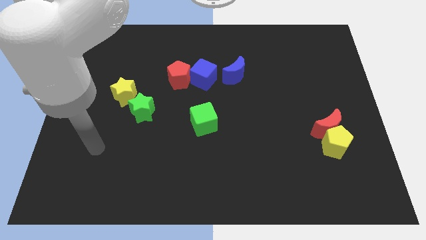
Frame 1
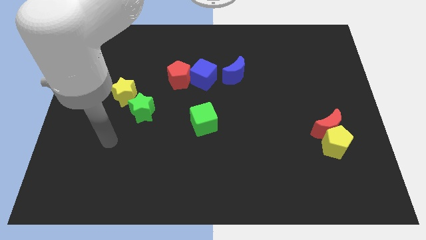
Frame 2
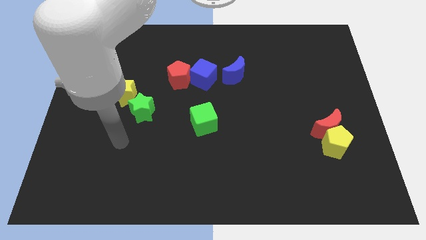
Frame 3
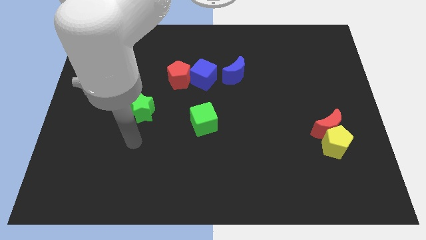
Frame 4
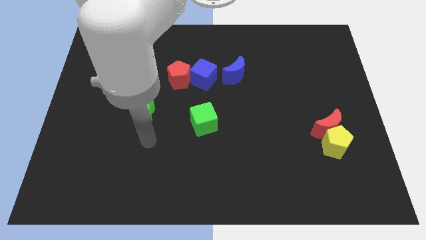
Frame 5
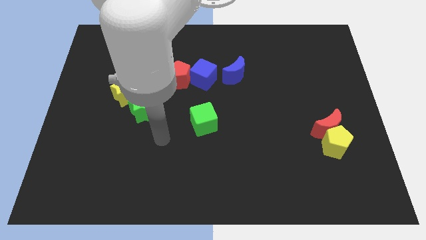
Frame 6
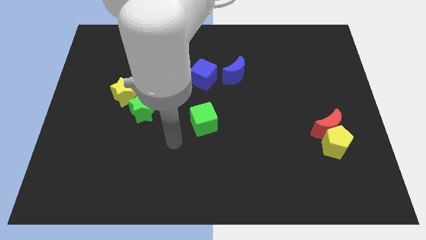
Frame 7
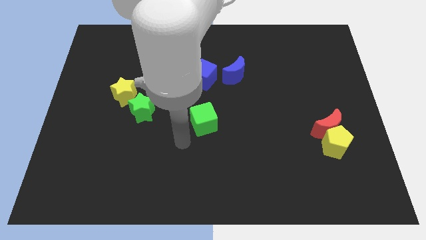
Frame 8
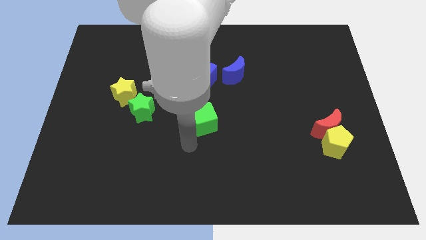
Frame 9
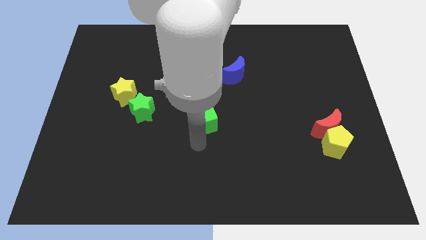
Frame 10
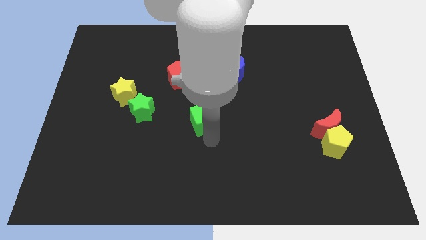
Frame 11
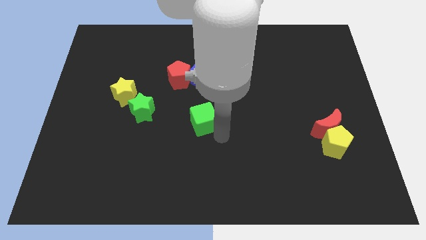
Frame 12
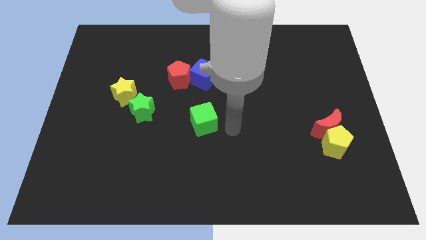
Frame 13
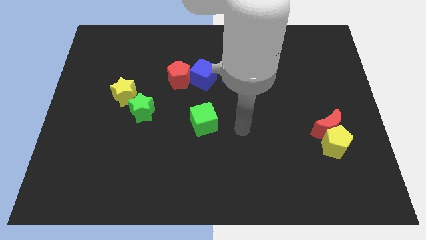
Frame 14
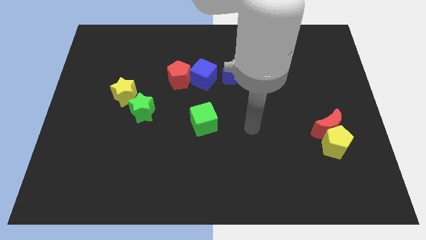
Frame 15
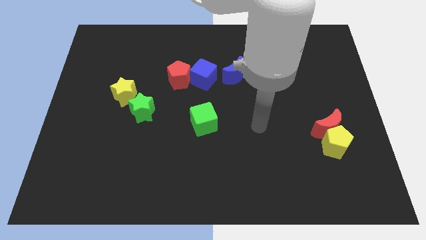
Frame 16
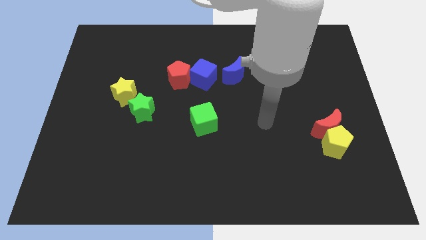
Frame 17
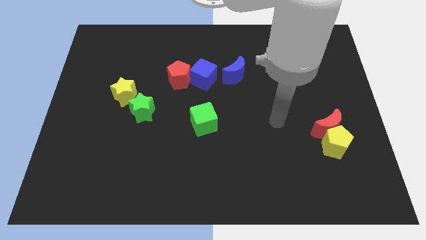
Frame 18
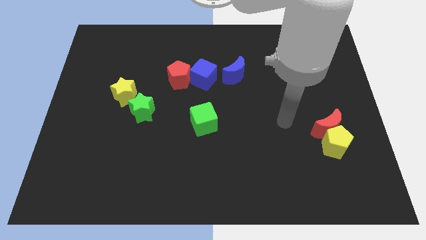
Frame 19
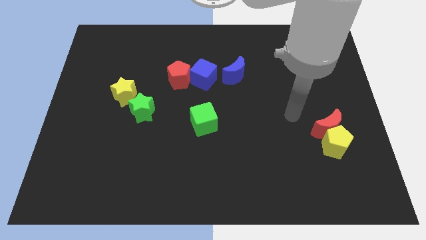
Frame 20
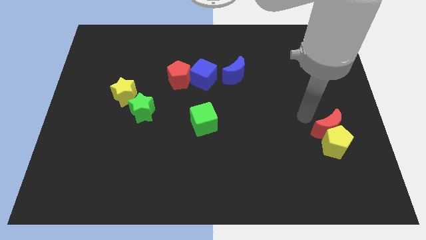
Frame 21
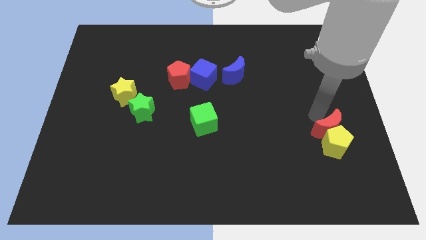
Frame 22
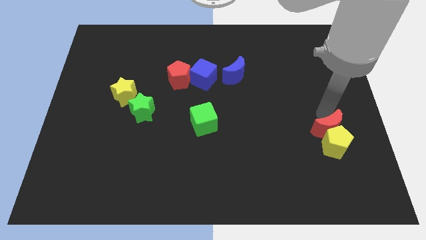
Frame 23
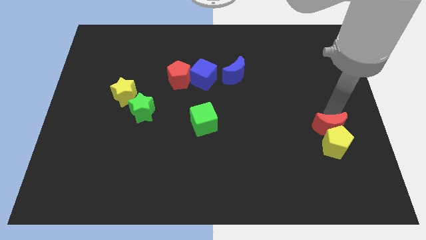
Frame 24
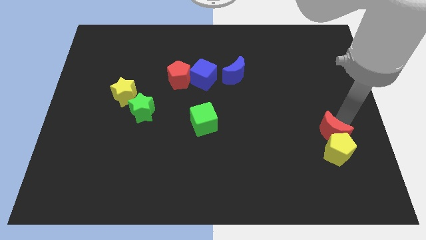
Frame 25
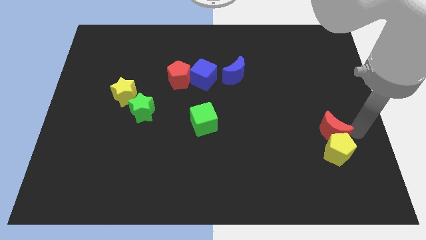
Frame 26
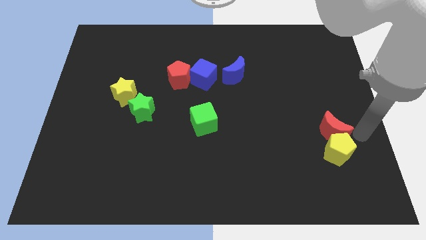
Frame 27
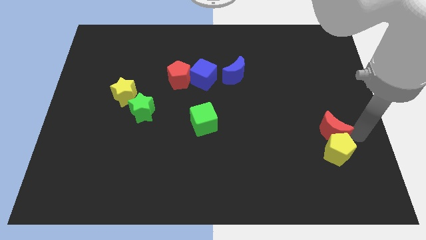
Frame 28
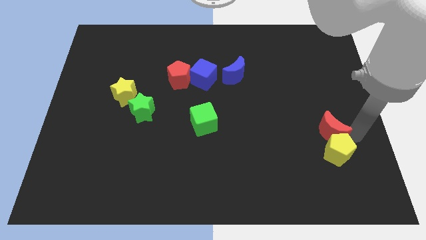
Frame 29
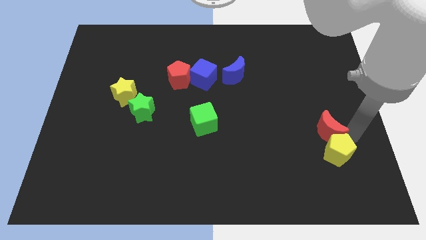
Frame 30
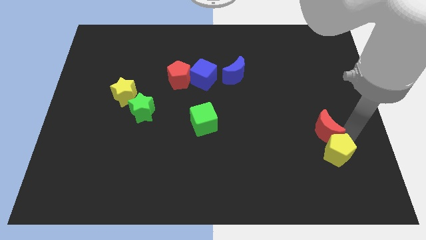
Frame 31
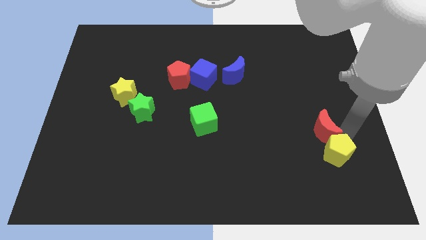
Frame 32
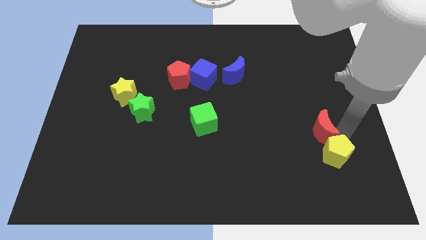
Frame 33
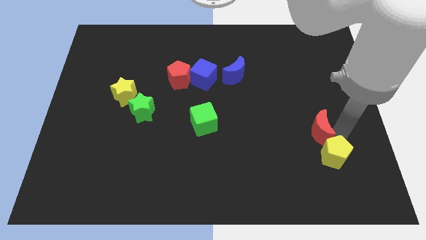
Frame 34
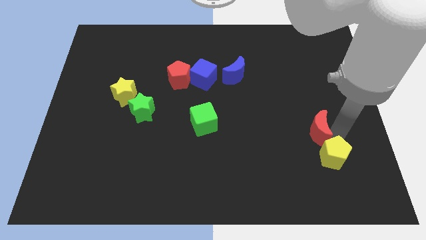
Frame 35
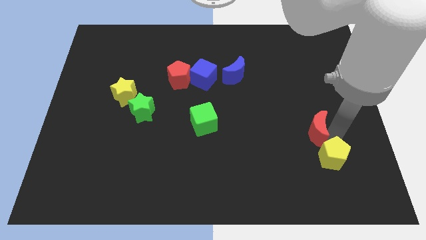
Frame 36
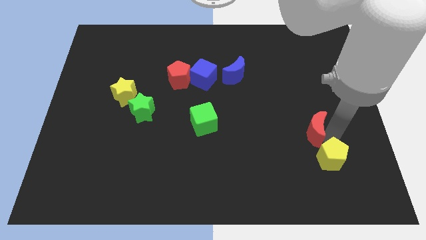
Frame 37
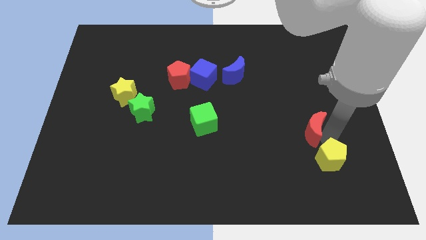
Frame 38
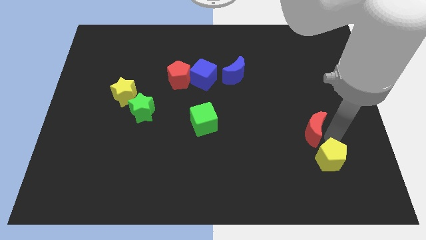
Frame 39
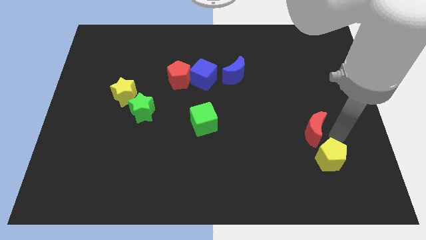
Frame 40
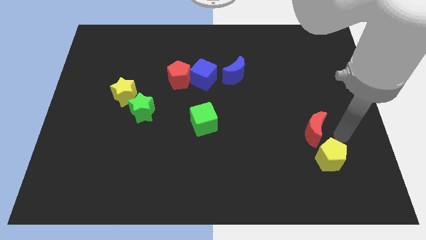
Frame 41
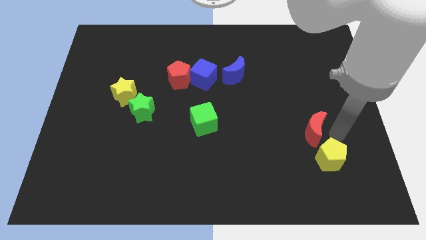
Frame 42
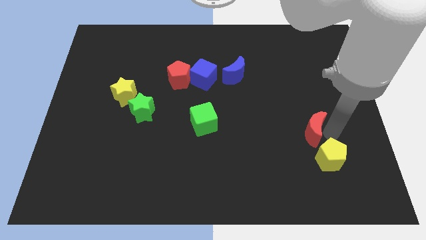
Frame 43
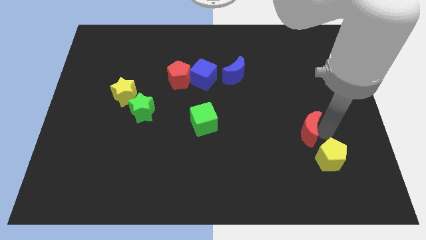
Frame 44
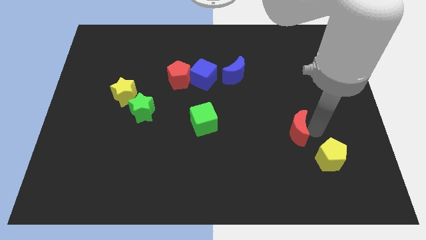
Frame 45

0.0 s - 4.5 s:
move the red moon slightly to the left

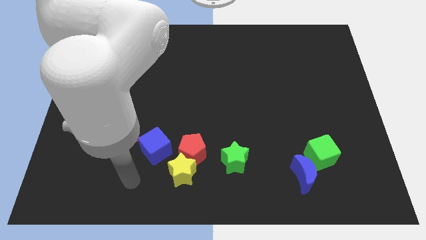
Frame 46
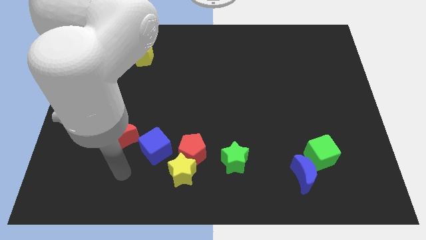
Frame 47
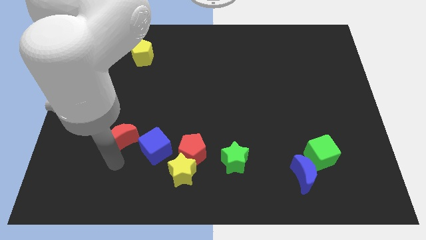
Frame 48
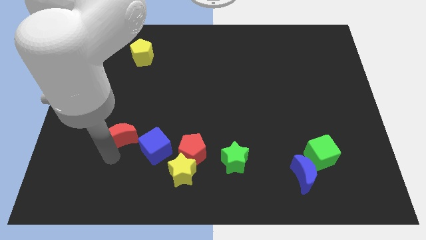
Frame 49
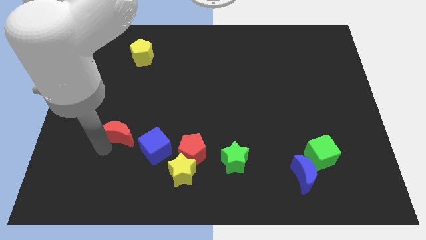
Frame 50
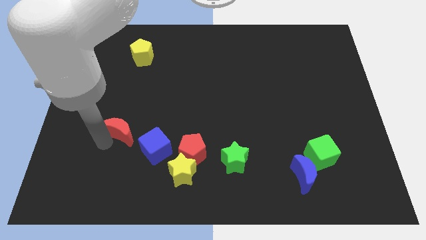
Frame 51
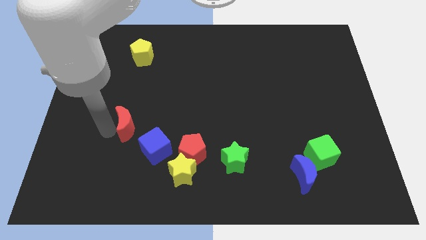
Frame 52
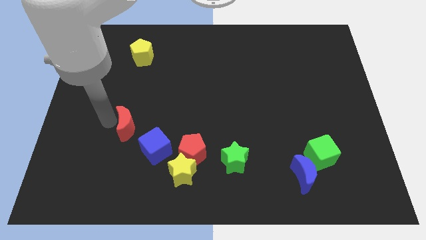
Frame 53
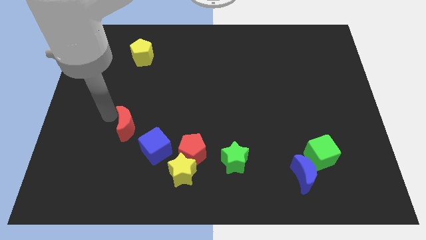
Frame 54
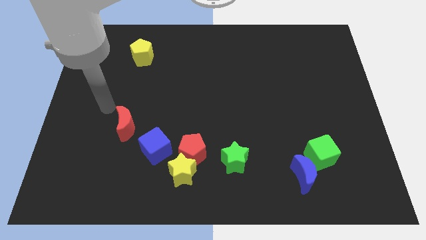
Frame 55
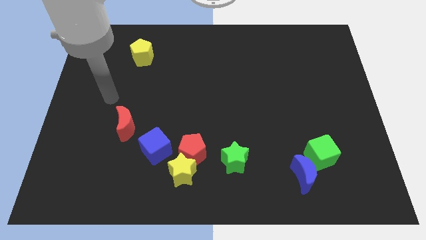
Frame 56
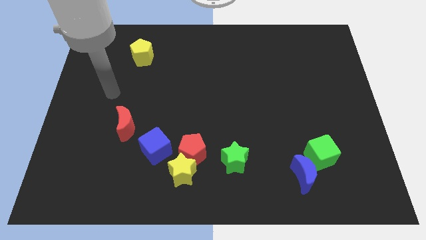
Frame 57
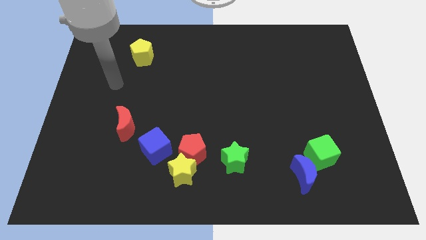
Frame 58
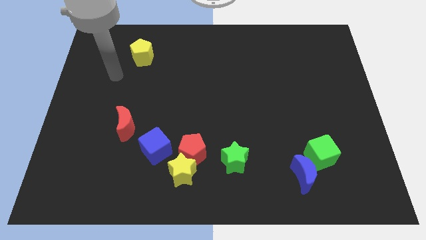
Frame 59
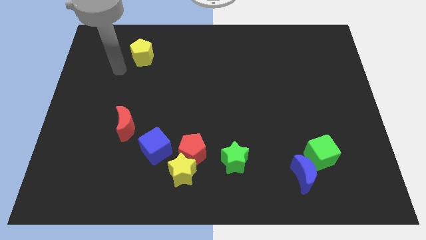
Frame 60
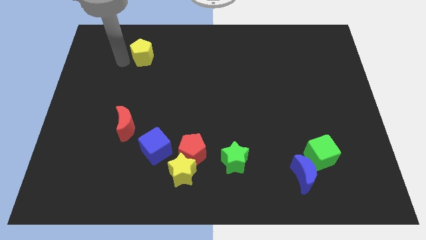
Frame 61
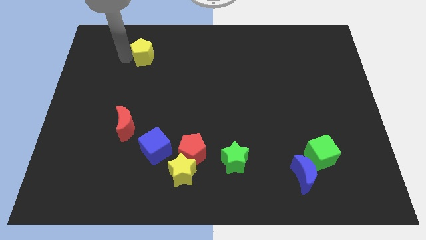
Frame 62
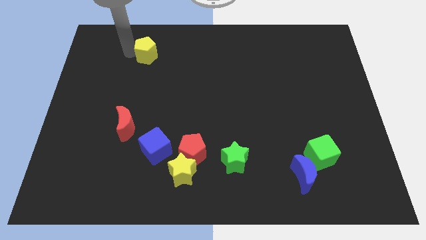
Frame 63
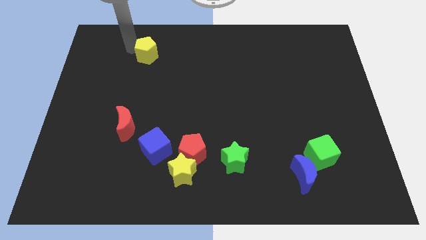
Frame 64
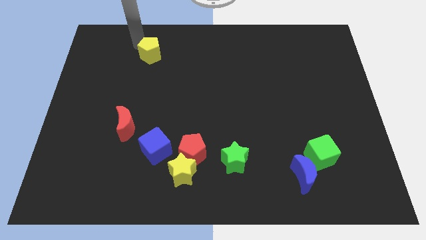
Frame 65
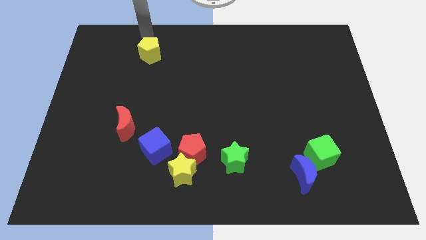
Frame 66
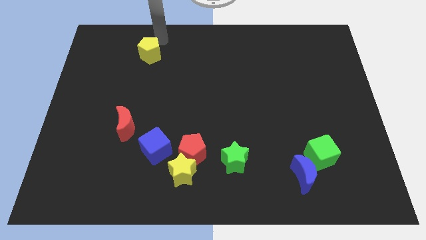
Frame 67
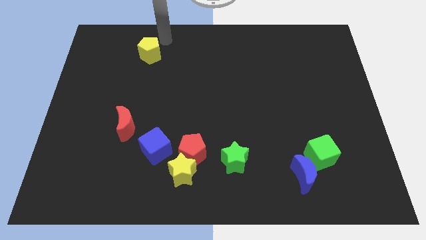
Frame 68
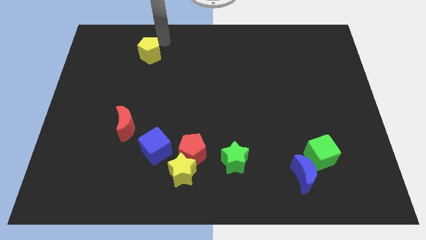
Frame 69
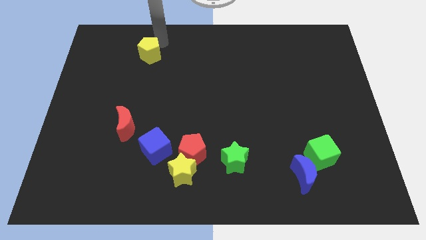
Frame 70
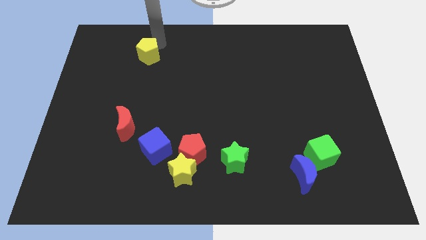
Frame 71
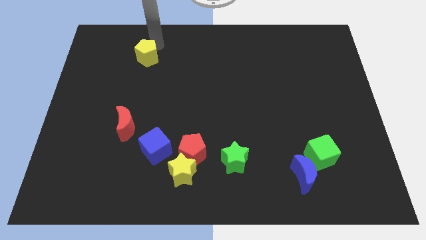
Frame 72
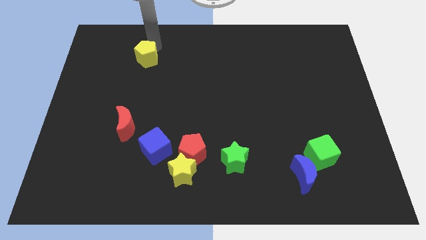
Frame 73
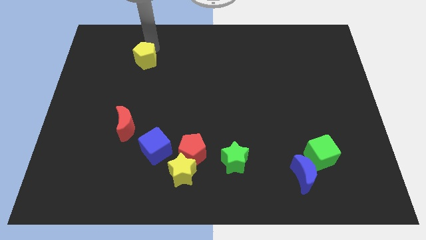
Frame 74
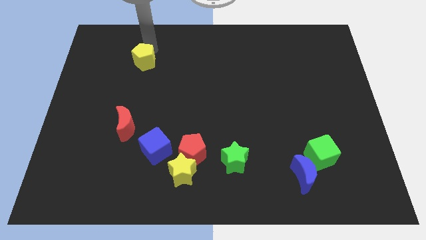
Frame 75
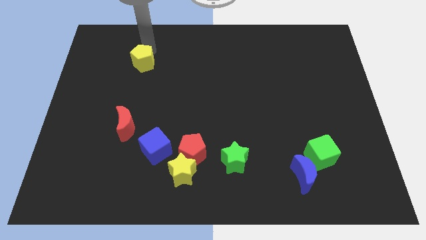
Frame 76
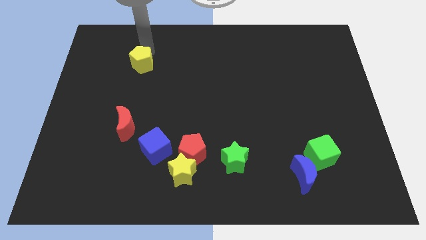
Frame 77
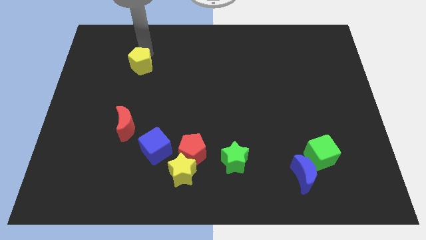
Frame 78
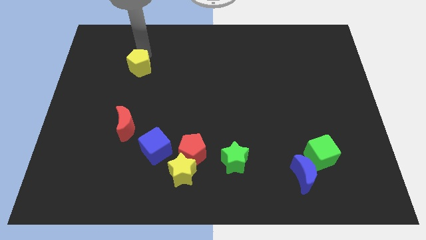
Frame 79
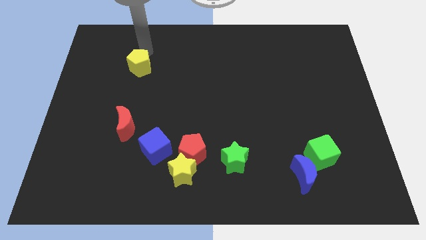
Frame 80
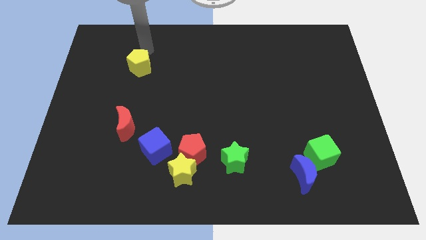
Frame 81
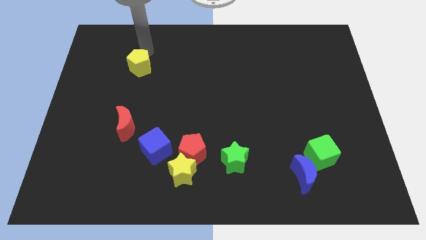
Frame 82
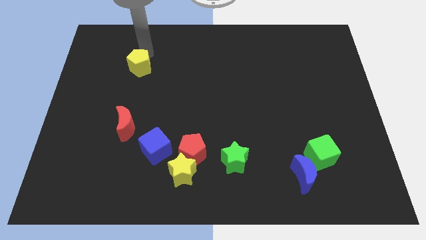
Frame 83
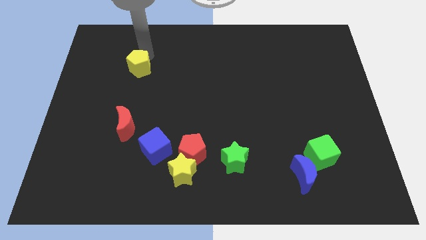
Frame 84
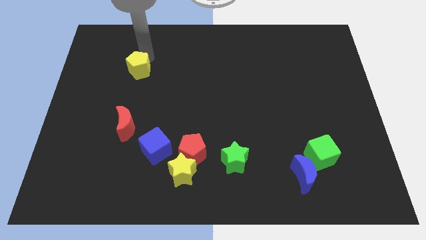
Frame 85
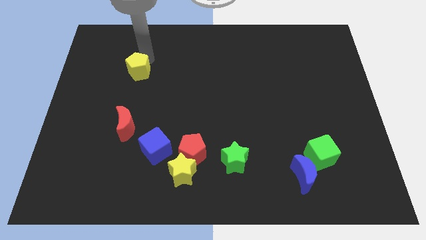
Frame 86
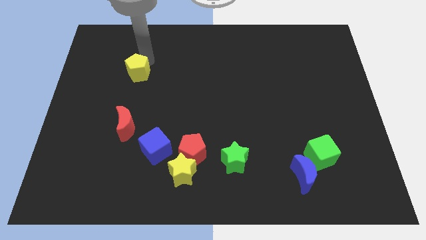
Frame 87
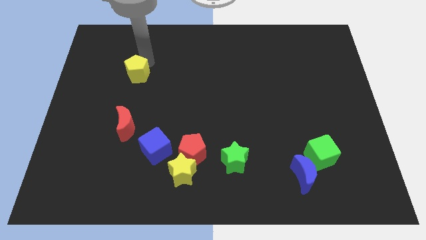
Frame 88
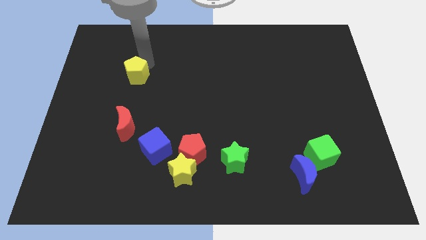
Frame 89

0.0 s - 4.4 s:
push the yellow pentagon down a bit
